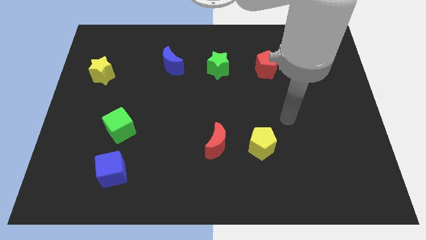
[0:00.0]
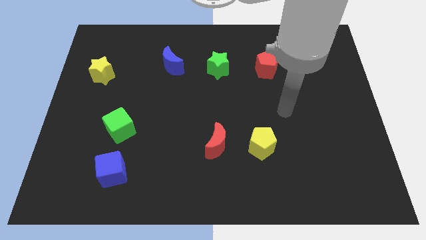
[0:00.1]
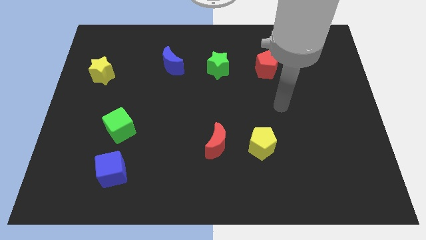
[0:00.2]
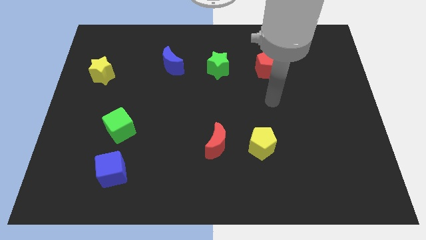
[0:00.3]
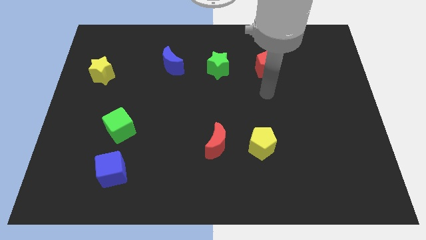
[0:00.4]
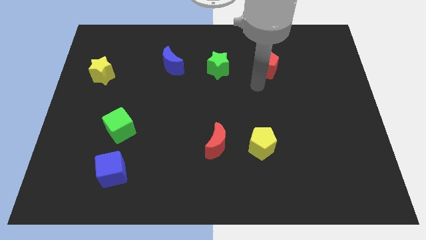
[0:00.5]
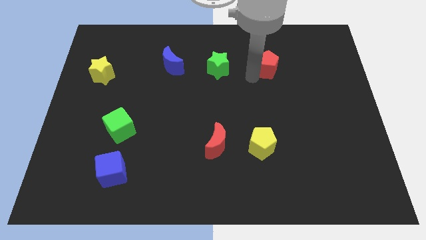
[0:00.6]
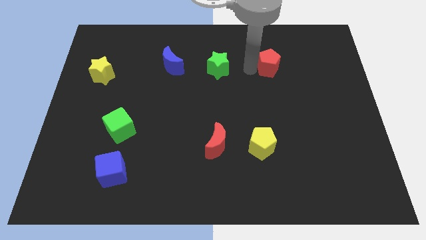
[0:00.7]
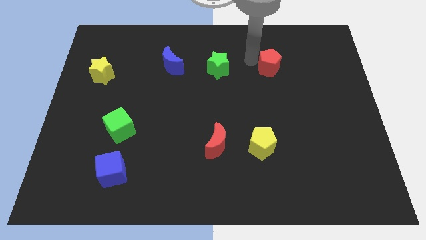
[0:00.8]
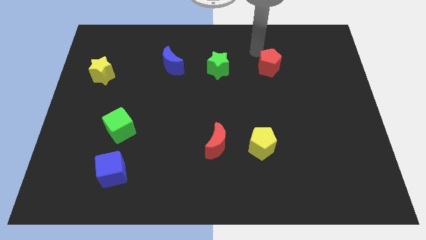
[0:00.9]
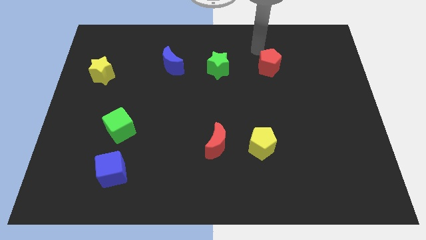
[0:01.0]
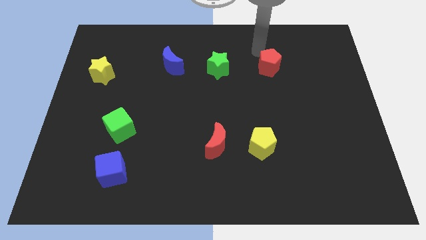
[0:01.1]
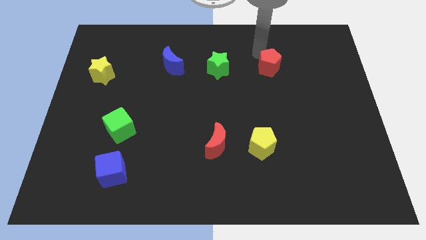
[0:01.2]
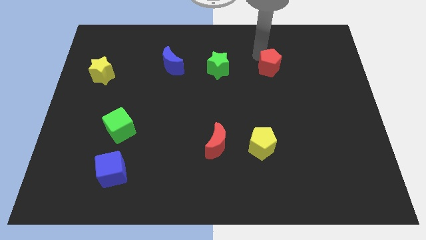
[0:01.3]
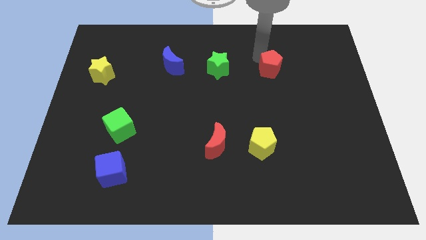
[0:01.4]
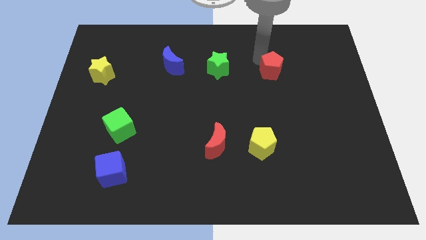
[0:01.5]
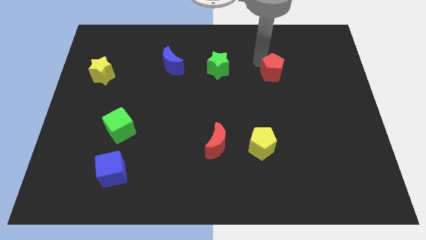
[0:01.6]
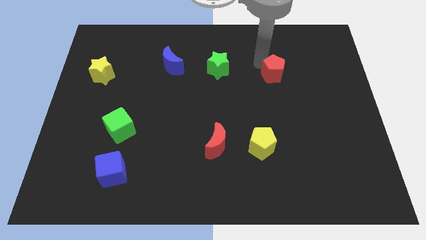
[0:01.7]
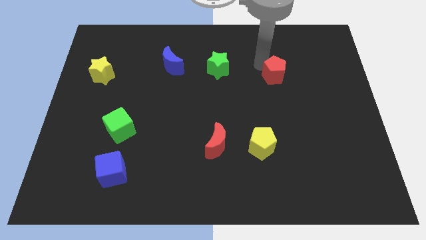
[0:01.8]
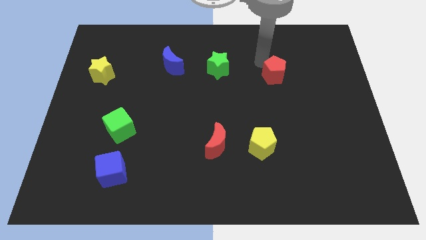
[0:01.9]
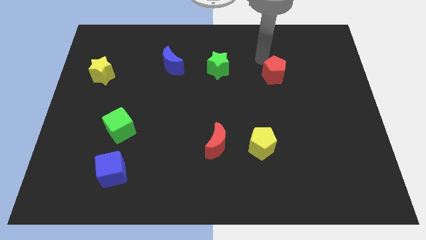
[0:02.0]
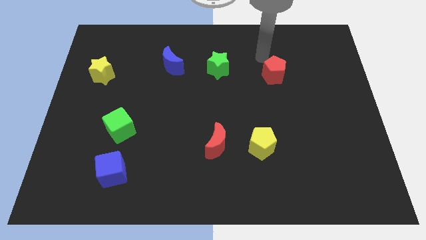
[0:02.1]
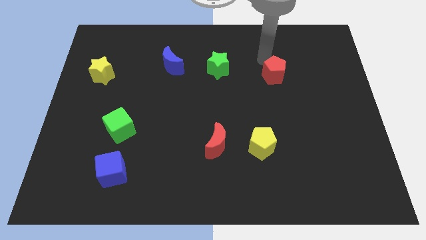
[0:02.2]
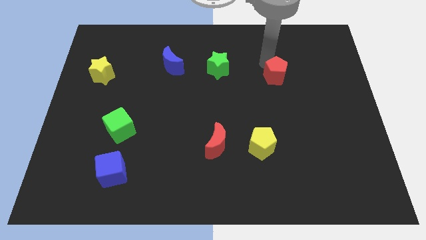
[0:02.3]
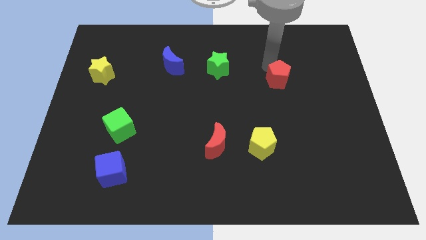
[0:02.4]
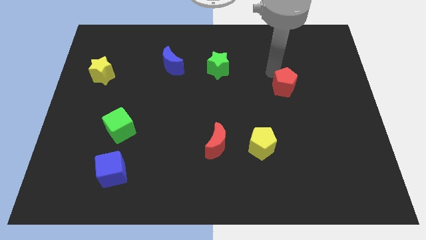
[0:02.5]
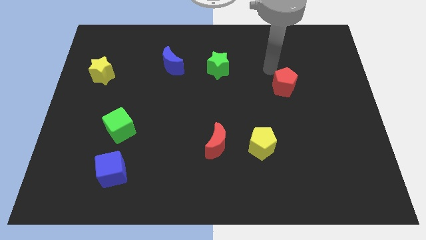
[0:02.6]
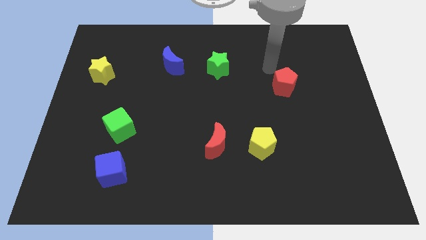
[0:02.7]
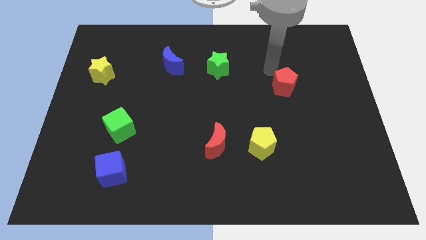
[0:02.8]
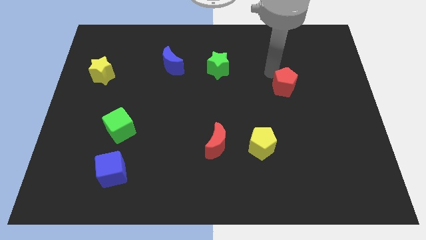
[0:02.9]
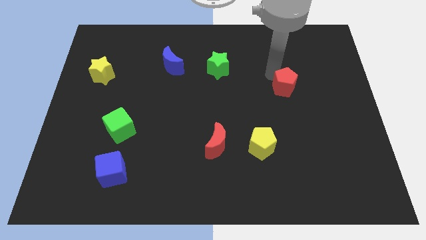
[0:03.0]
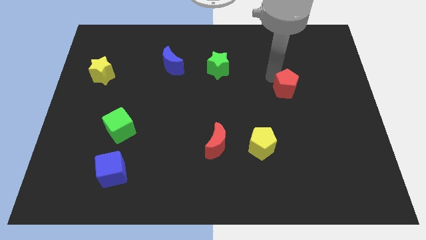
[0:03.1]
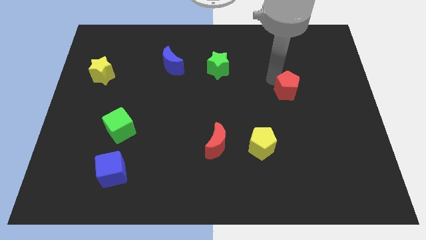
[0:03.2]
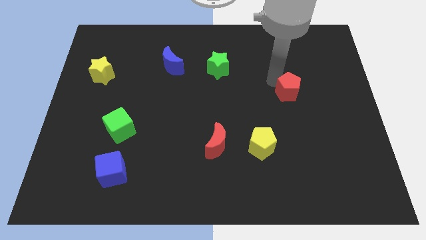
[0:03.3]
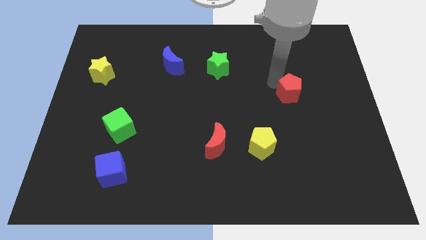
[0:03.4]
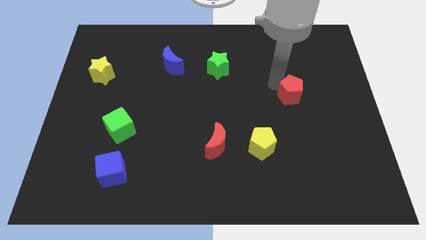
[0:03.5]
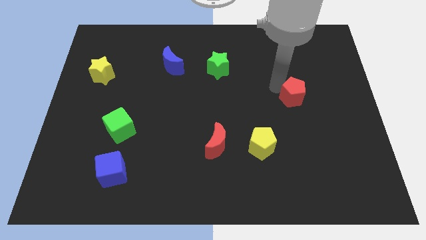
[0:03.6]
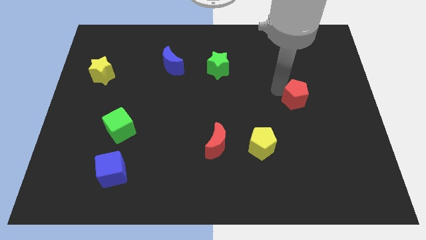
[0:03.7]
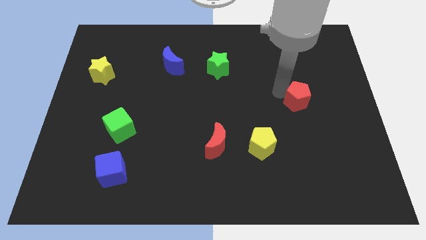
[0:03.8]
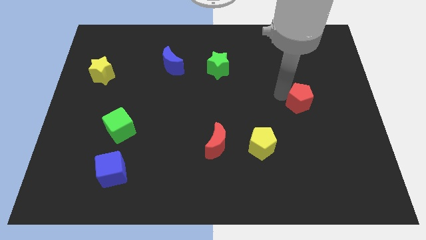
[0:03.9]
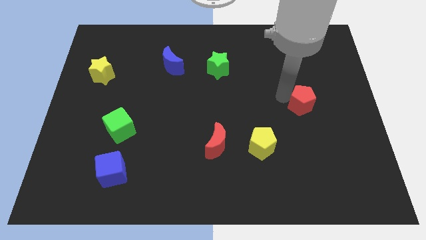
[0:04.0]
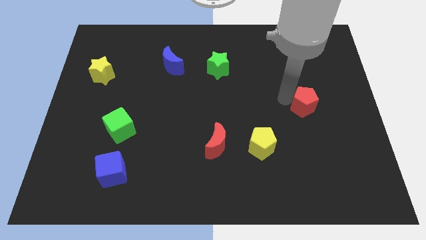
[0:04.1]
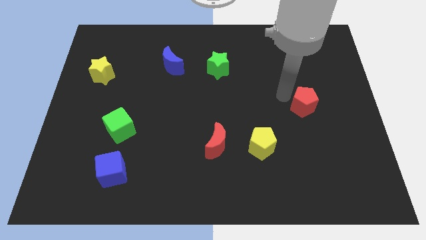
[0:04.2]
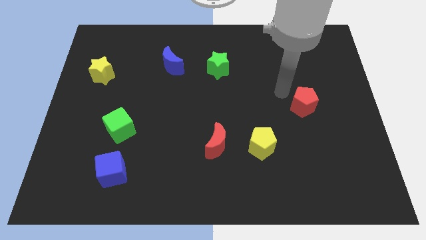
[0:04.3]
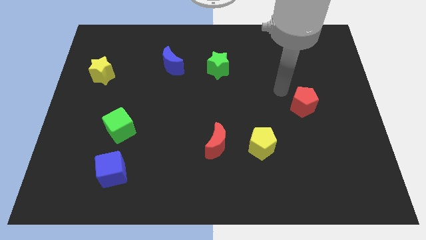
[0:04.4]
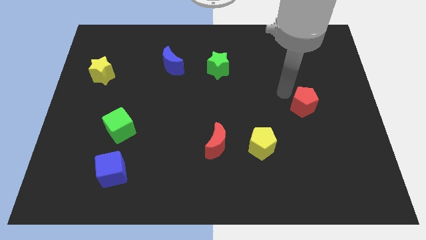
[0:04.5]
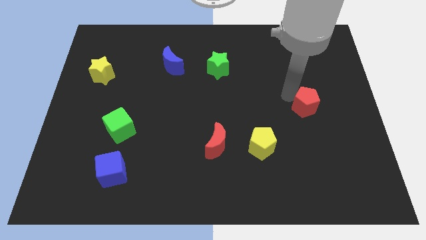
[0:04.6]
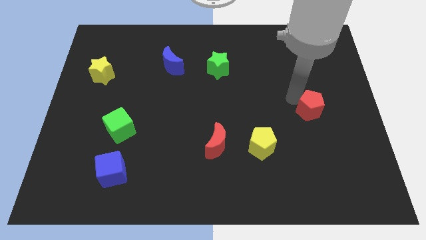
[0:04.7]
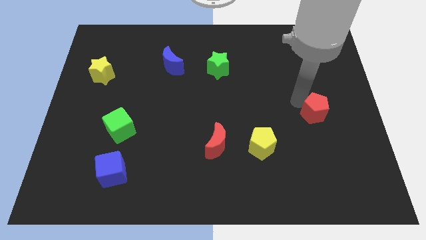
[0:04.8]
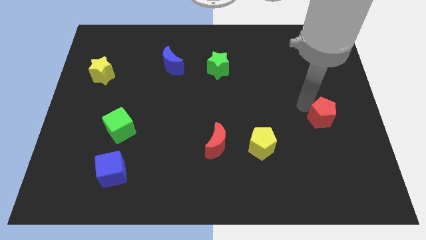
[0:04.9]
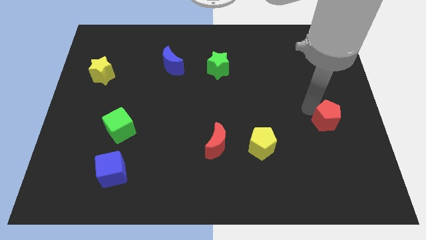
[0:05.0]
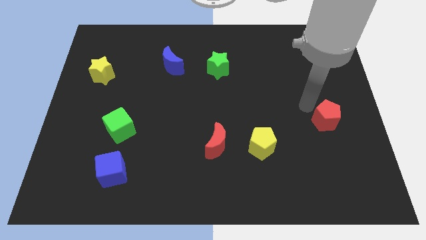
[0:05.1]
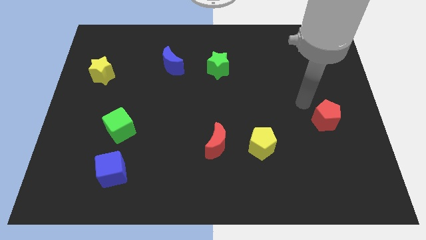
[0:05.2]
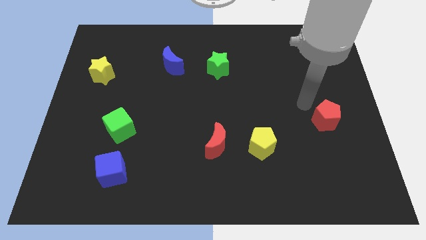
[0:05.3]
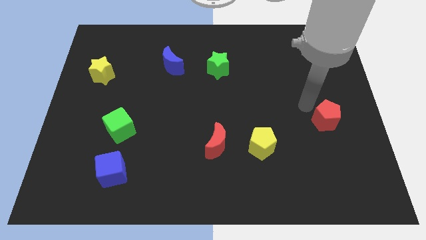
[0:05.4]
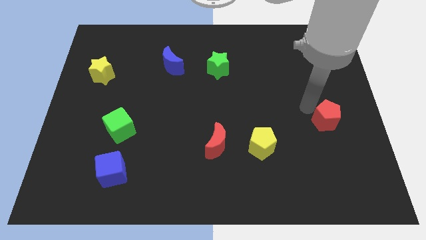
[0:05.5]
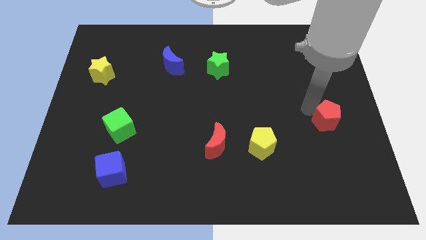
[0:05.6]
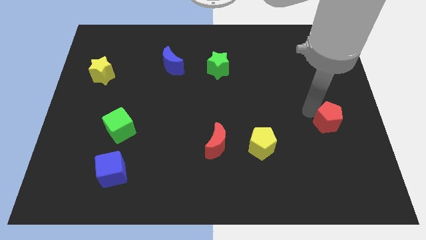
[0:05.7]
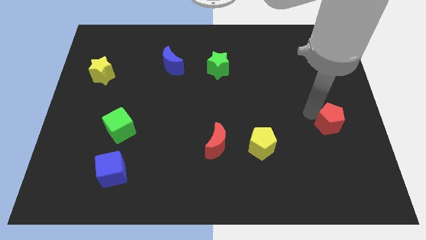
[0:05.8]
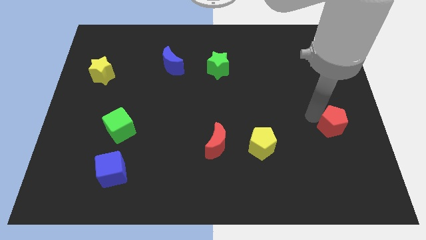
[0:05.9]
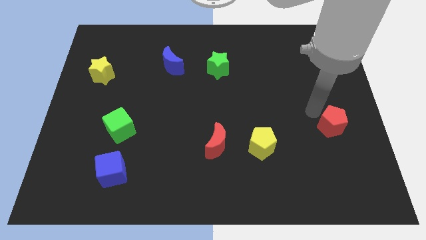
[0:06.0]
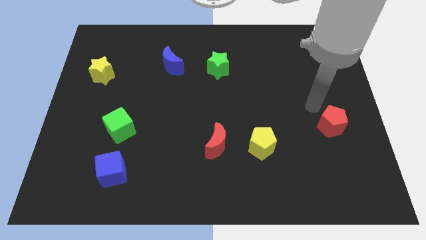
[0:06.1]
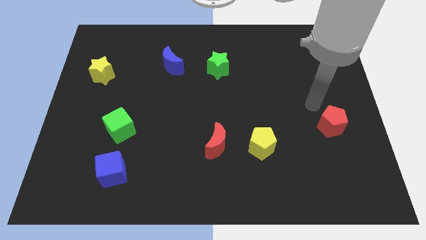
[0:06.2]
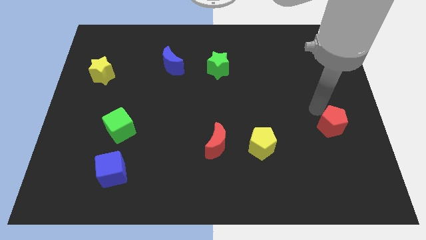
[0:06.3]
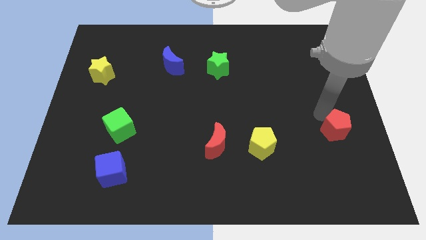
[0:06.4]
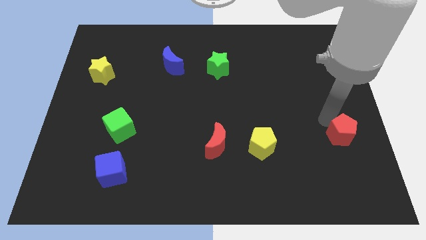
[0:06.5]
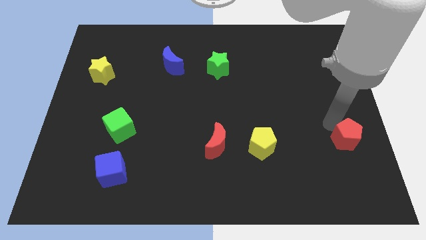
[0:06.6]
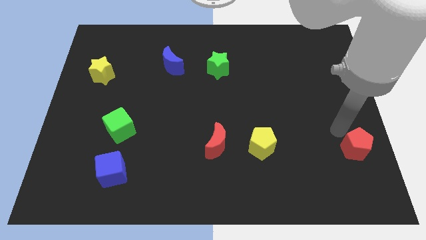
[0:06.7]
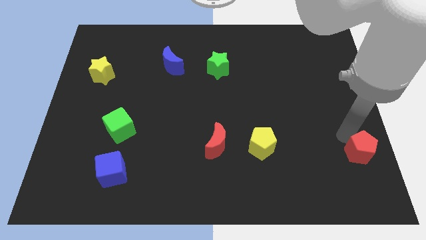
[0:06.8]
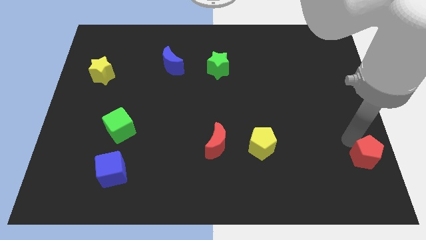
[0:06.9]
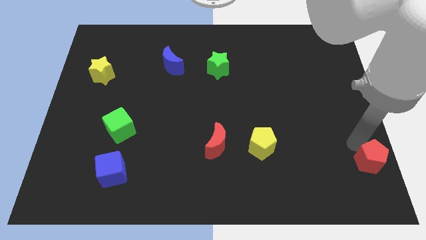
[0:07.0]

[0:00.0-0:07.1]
slide the red pentagon to the lower right corner
